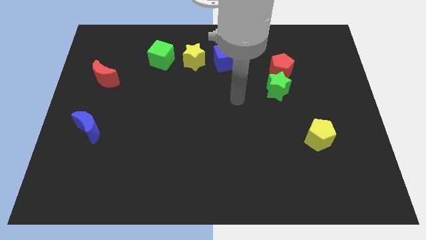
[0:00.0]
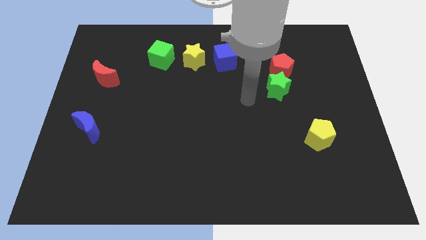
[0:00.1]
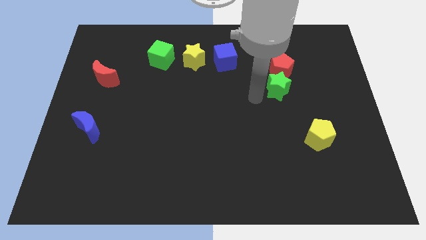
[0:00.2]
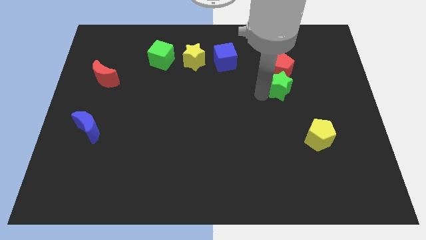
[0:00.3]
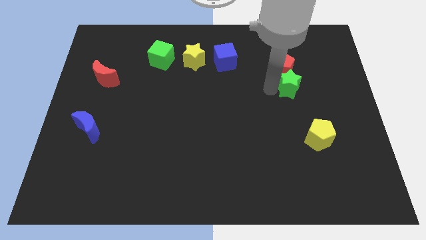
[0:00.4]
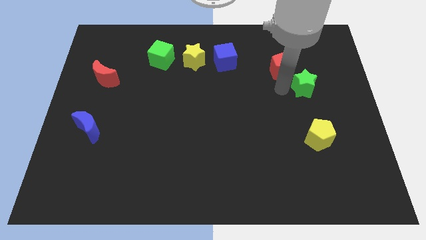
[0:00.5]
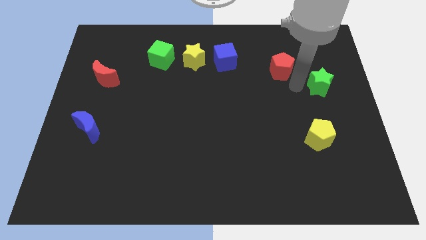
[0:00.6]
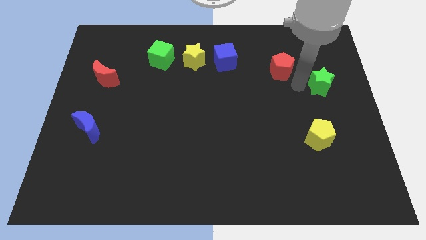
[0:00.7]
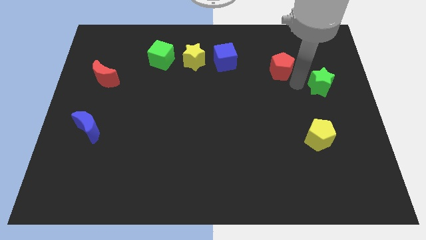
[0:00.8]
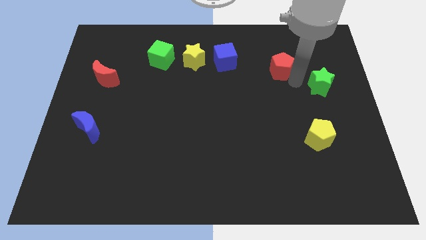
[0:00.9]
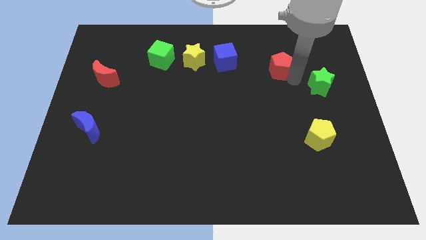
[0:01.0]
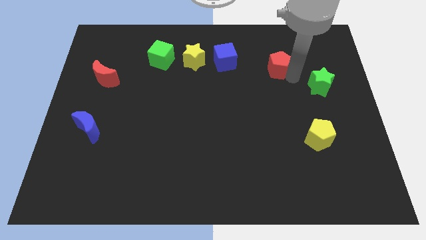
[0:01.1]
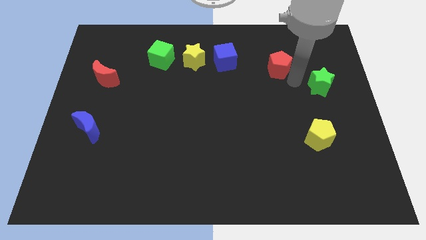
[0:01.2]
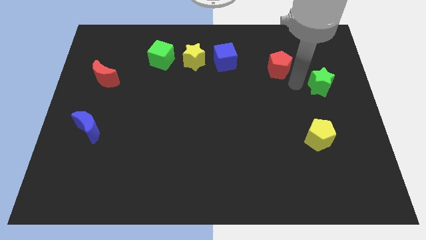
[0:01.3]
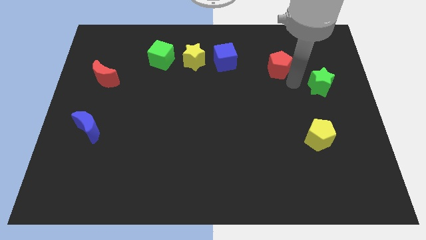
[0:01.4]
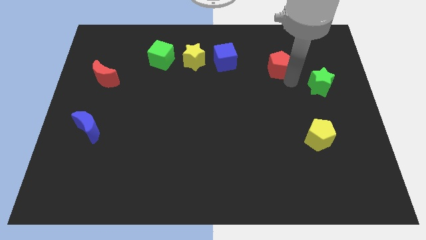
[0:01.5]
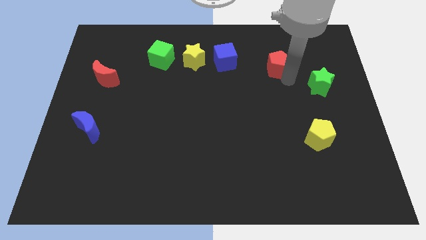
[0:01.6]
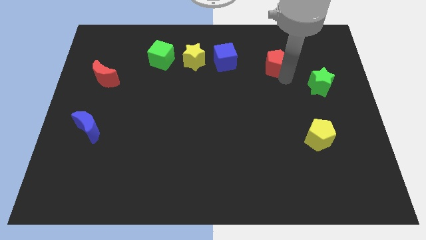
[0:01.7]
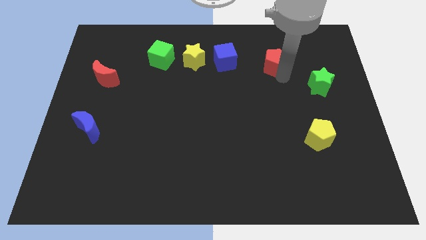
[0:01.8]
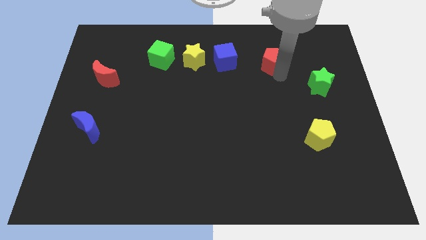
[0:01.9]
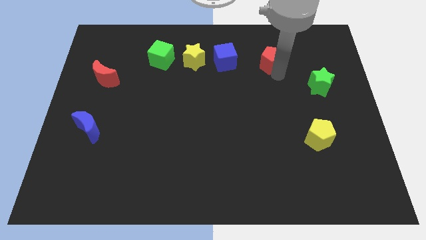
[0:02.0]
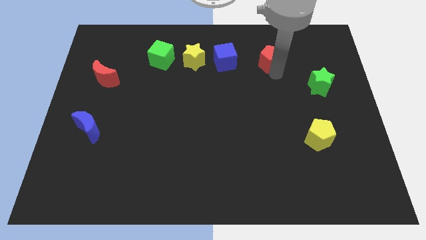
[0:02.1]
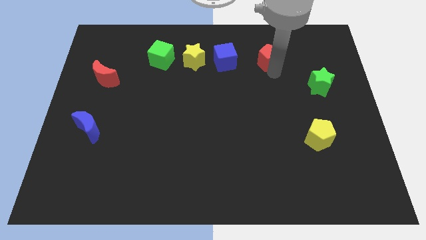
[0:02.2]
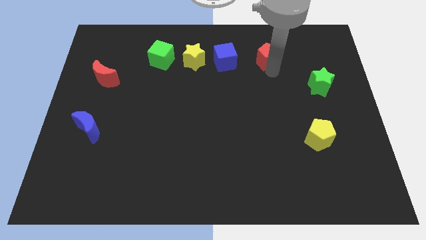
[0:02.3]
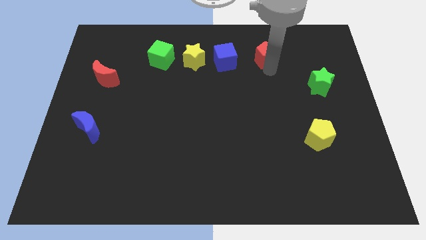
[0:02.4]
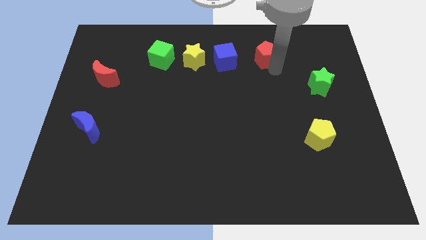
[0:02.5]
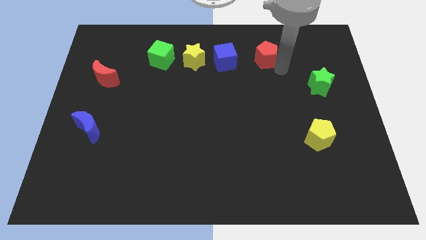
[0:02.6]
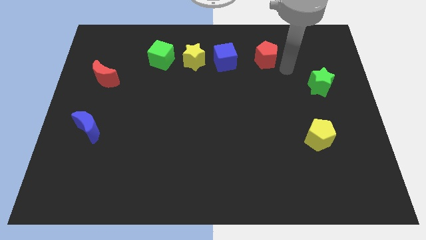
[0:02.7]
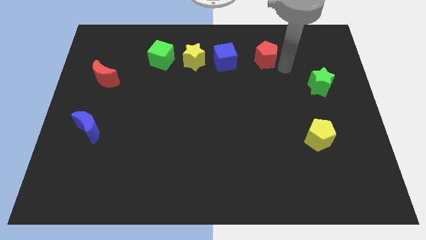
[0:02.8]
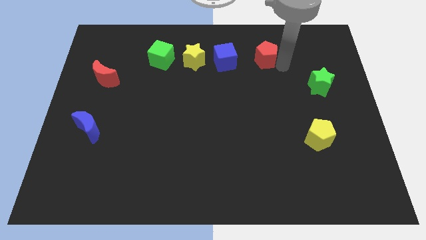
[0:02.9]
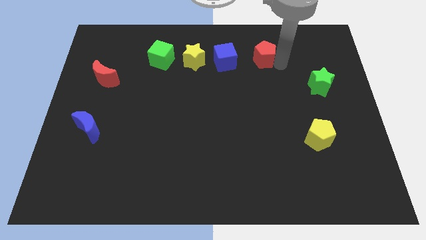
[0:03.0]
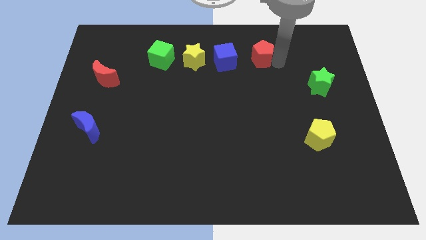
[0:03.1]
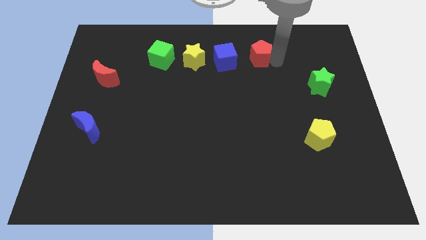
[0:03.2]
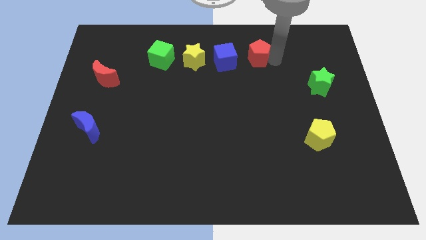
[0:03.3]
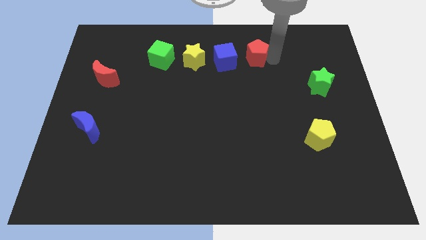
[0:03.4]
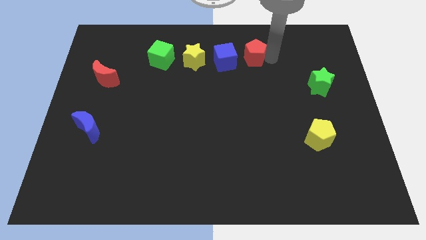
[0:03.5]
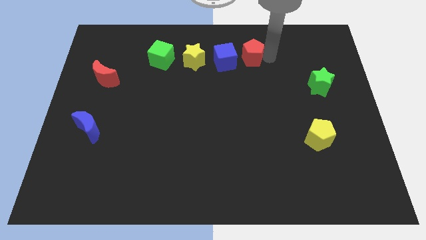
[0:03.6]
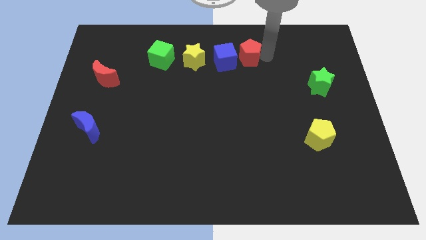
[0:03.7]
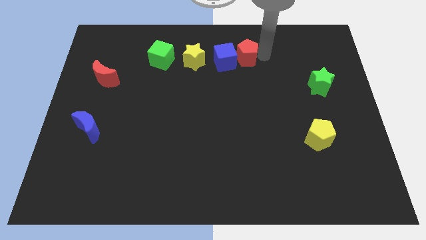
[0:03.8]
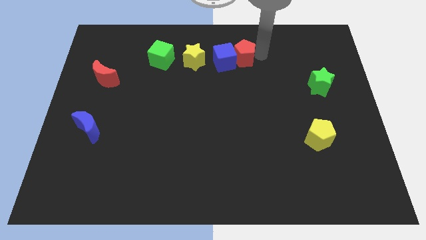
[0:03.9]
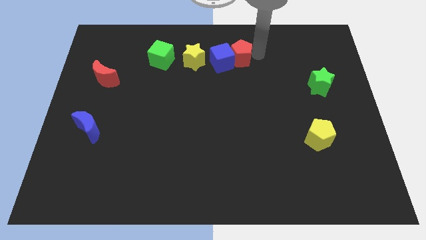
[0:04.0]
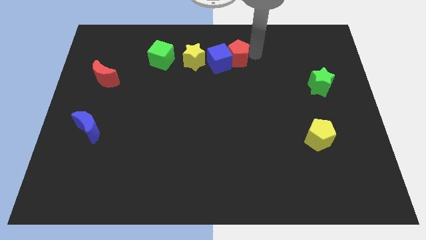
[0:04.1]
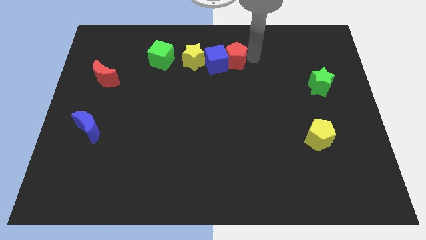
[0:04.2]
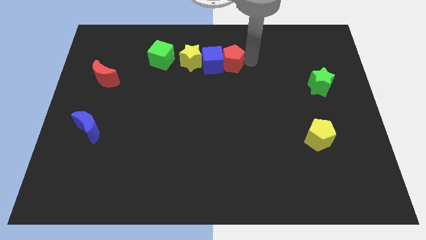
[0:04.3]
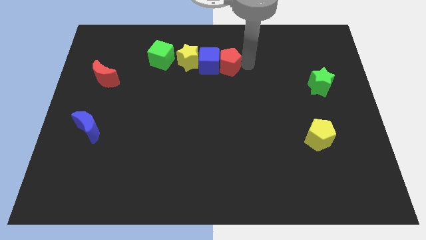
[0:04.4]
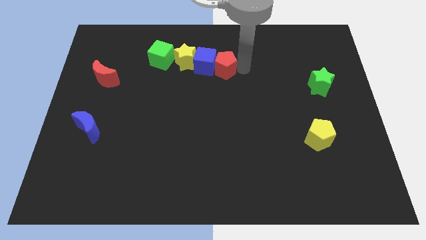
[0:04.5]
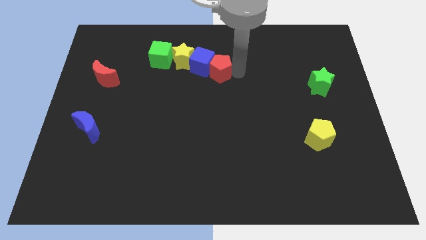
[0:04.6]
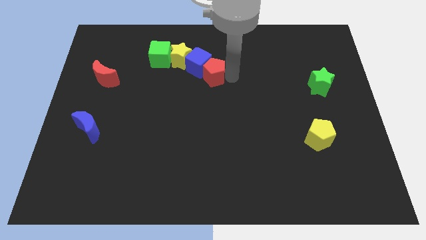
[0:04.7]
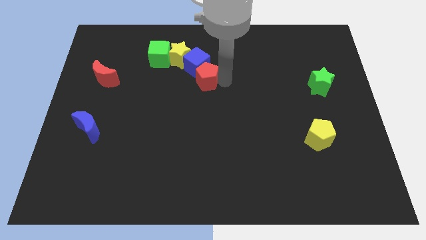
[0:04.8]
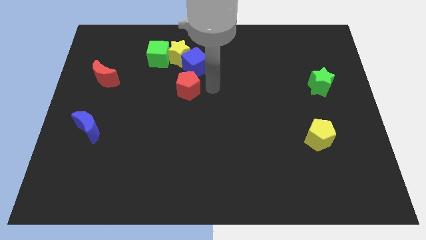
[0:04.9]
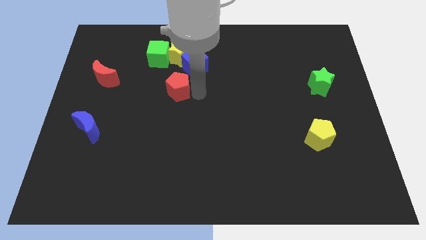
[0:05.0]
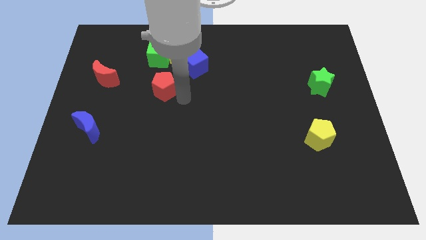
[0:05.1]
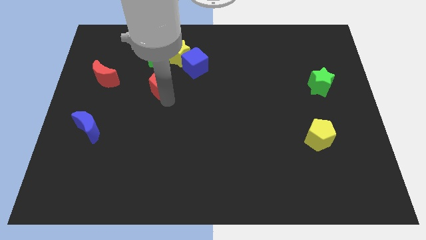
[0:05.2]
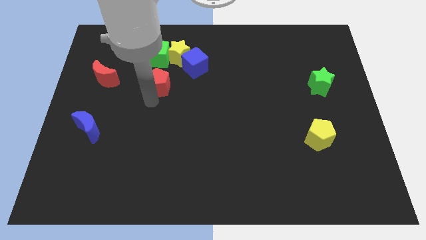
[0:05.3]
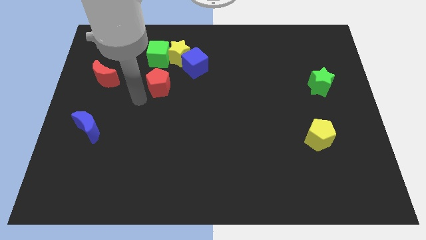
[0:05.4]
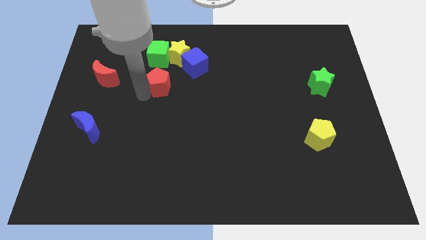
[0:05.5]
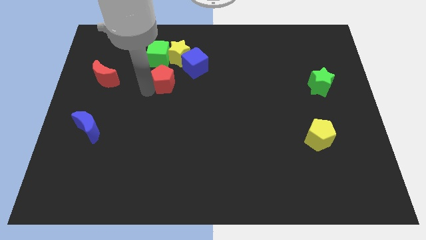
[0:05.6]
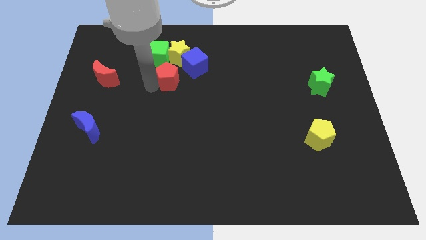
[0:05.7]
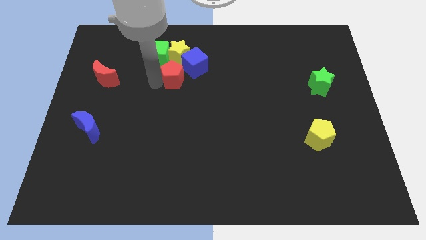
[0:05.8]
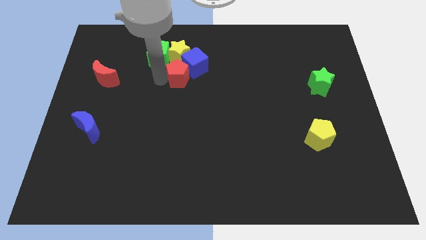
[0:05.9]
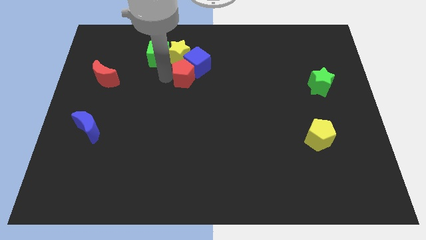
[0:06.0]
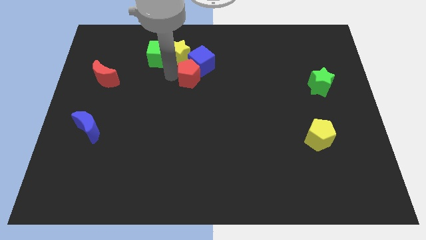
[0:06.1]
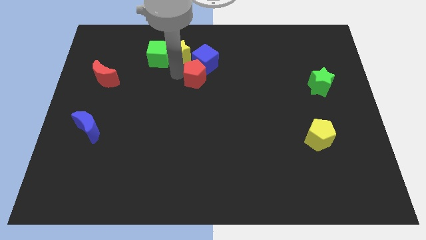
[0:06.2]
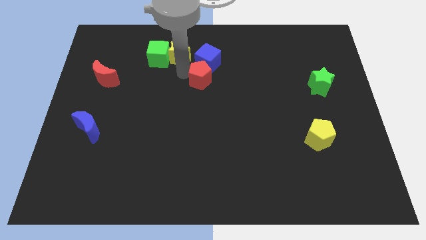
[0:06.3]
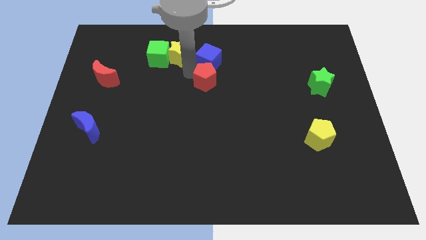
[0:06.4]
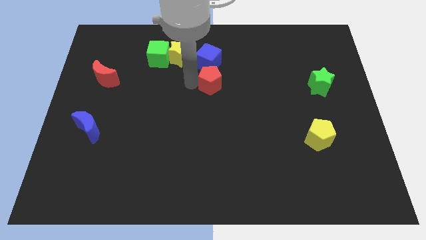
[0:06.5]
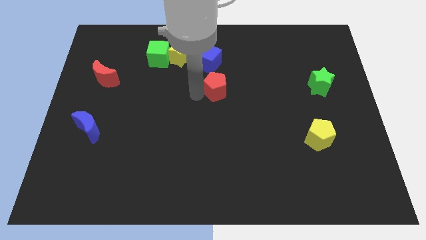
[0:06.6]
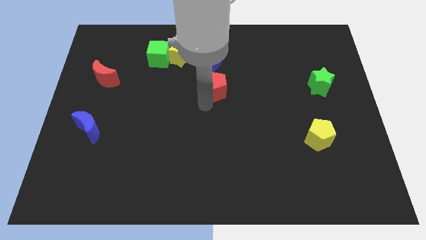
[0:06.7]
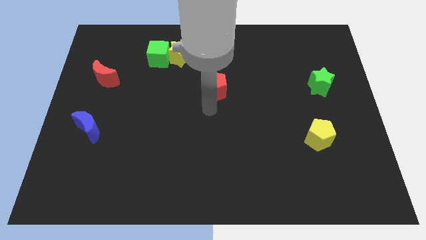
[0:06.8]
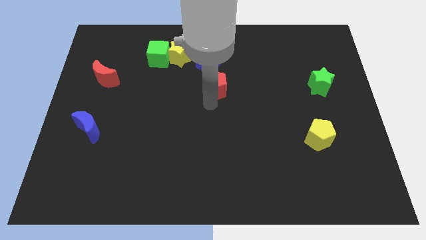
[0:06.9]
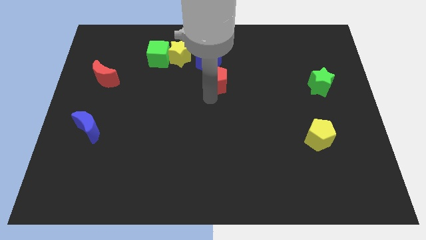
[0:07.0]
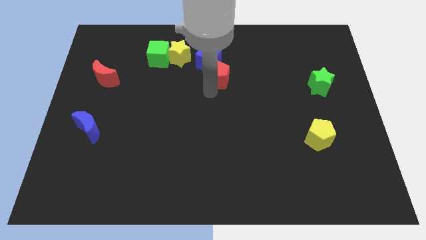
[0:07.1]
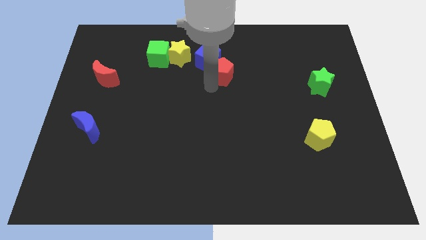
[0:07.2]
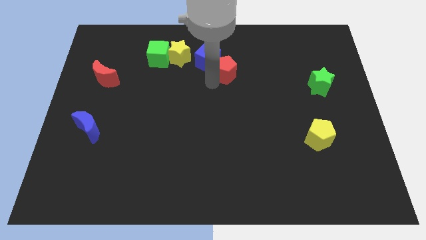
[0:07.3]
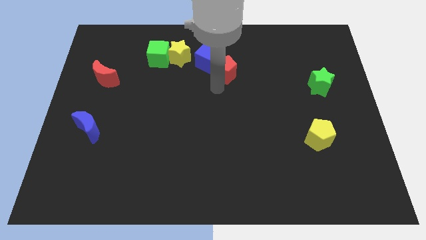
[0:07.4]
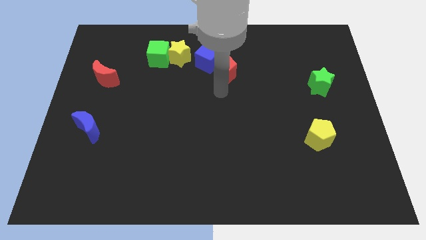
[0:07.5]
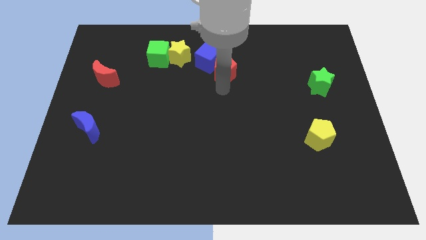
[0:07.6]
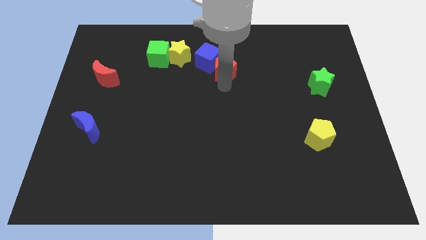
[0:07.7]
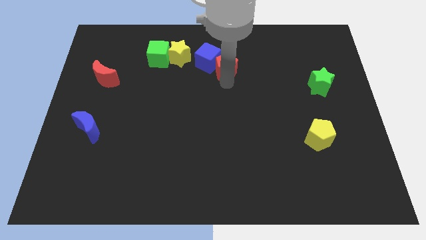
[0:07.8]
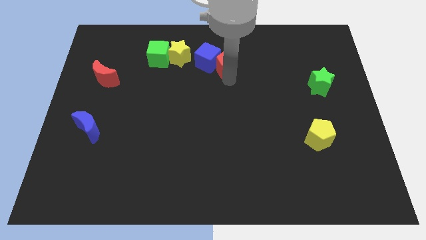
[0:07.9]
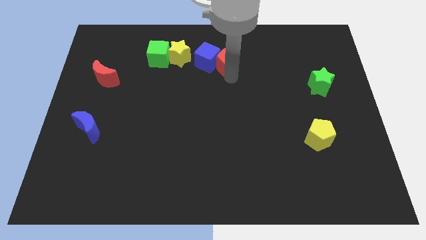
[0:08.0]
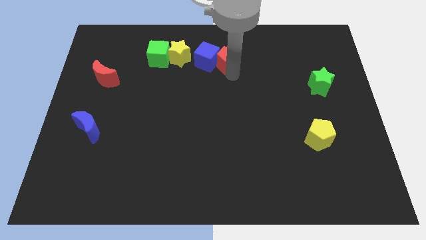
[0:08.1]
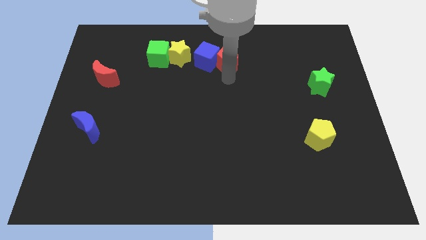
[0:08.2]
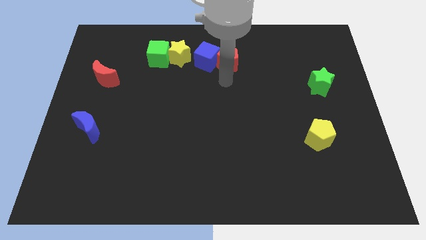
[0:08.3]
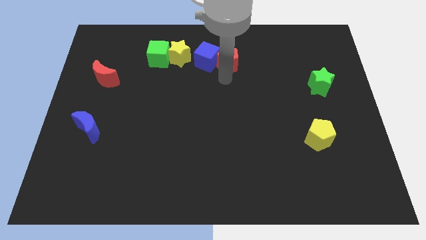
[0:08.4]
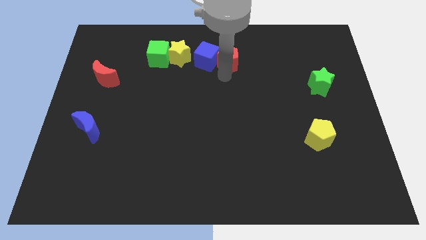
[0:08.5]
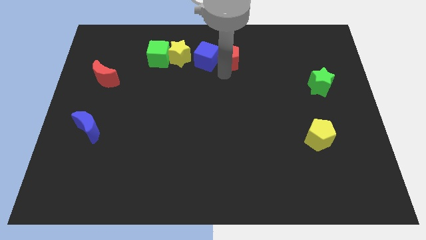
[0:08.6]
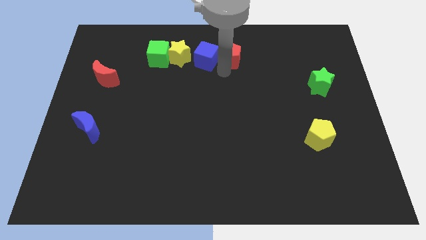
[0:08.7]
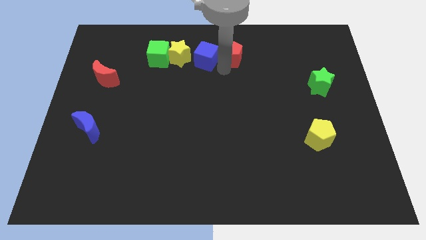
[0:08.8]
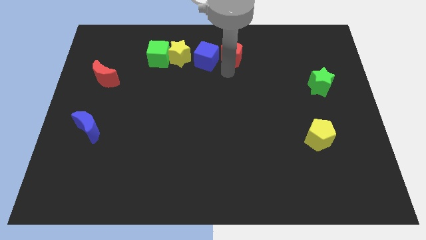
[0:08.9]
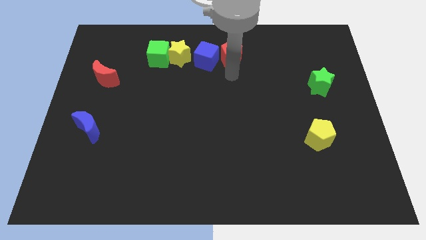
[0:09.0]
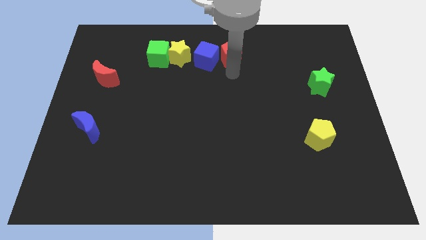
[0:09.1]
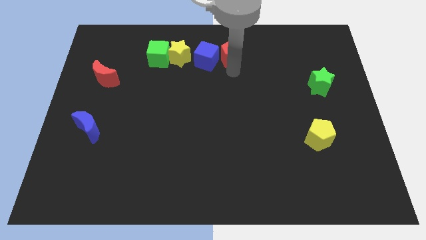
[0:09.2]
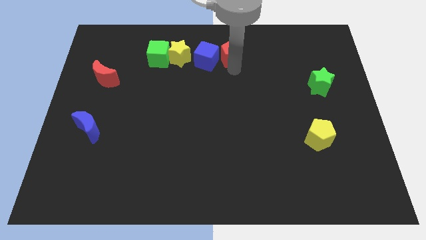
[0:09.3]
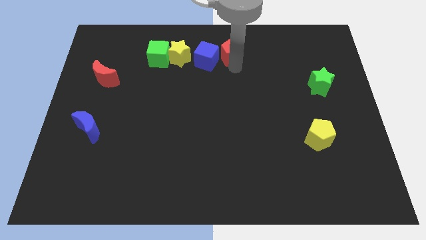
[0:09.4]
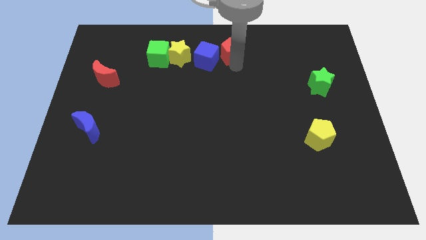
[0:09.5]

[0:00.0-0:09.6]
put the red pentagon to the top
